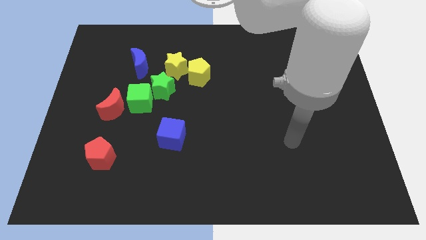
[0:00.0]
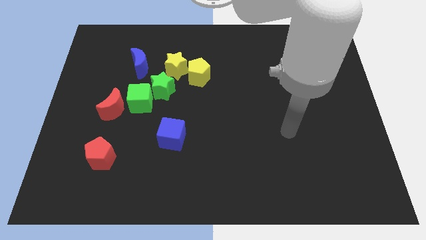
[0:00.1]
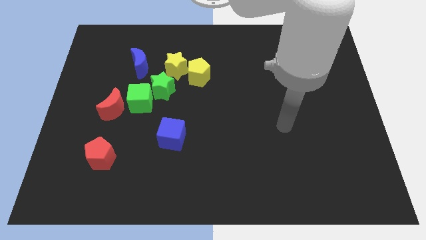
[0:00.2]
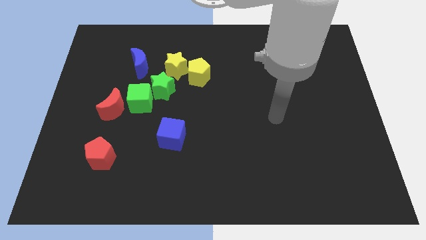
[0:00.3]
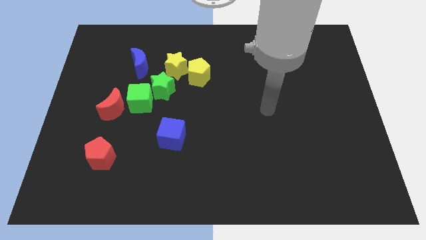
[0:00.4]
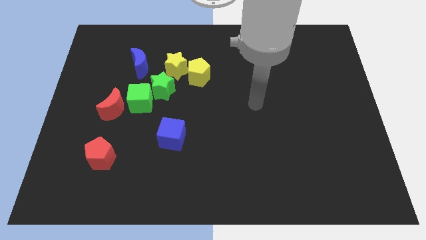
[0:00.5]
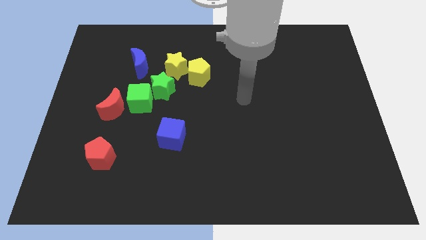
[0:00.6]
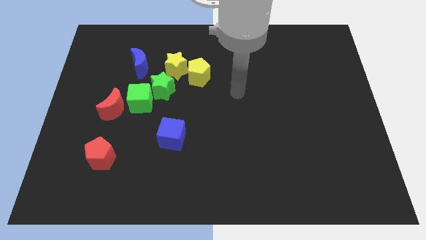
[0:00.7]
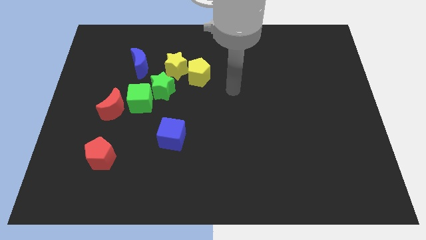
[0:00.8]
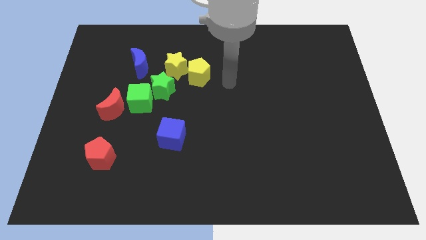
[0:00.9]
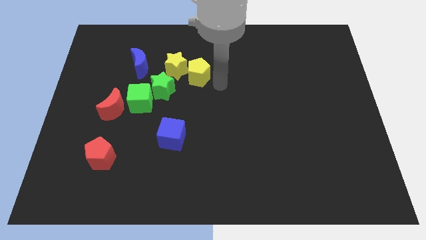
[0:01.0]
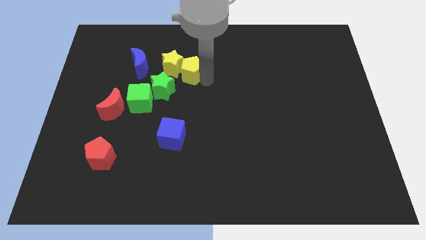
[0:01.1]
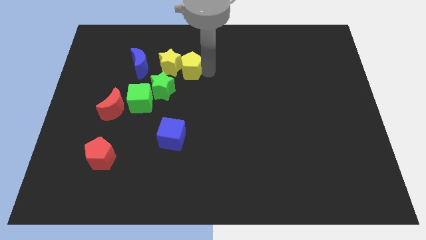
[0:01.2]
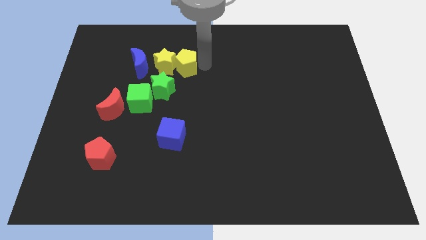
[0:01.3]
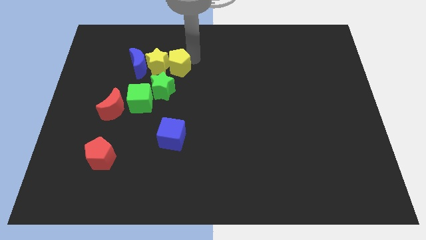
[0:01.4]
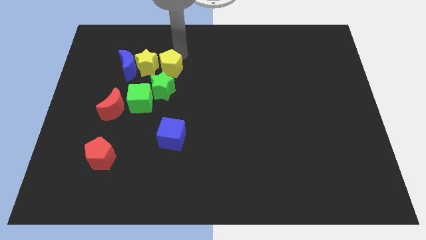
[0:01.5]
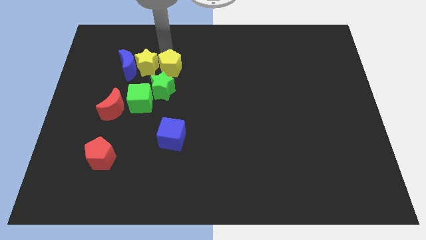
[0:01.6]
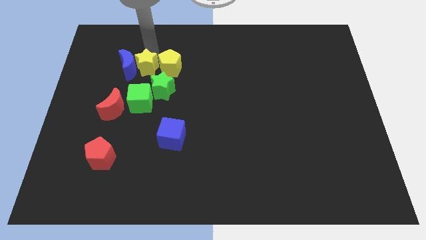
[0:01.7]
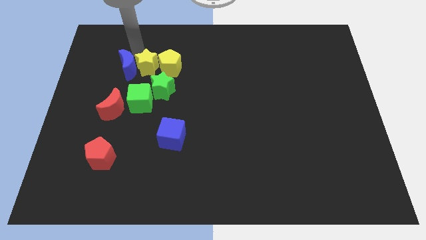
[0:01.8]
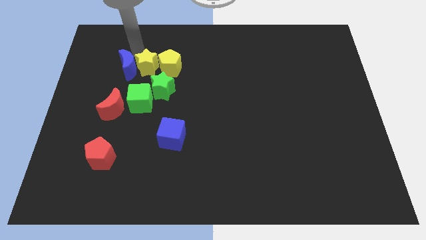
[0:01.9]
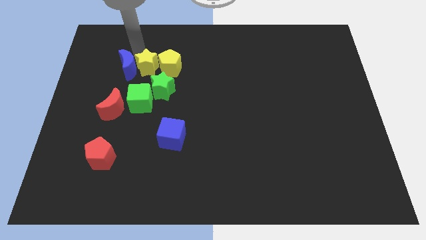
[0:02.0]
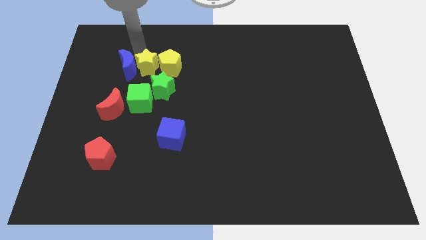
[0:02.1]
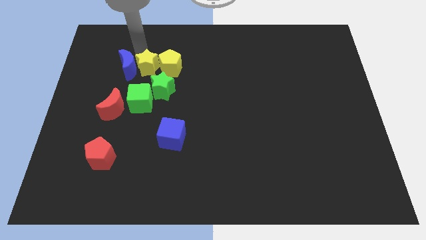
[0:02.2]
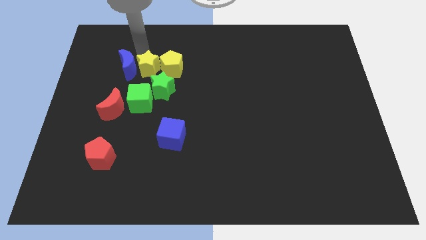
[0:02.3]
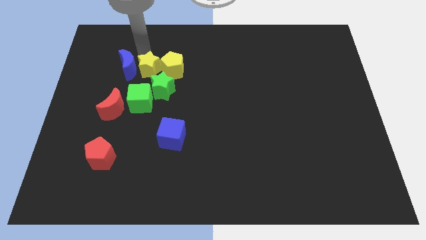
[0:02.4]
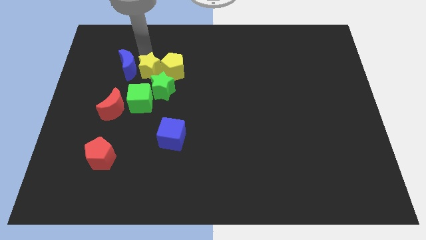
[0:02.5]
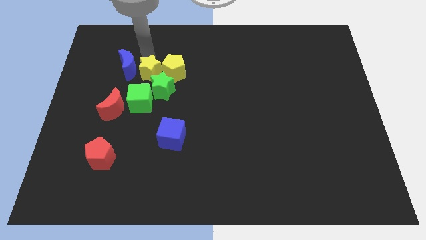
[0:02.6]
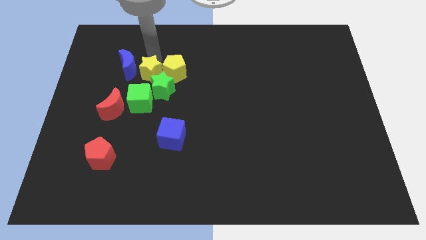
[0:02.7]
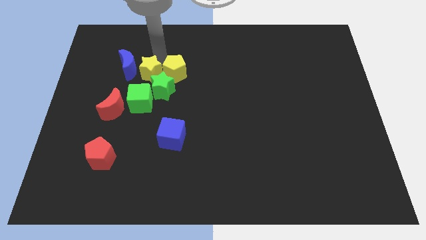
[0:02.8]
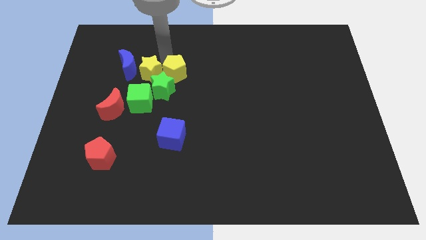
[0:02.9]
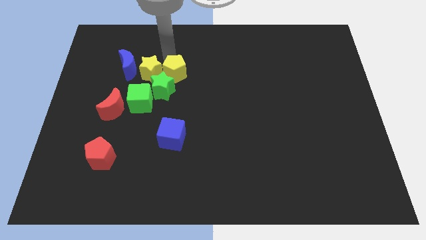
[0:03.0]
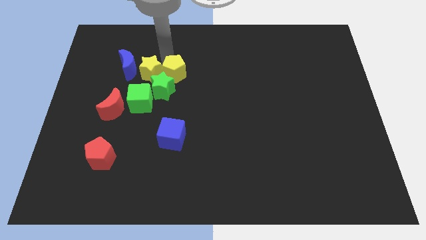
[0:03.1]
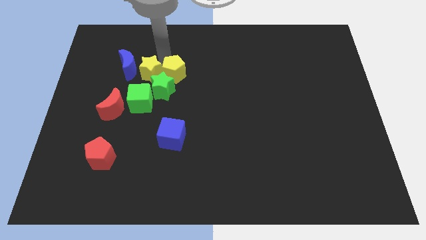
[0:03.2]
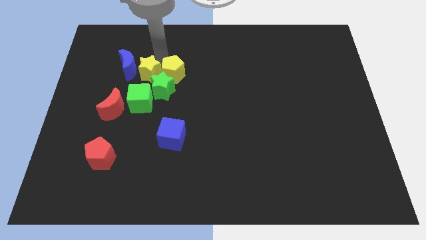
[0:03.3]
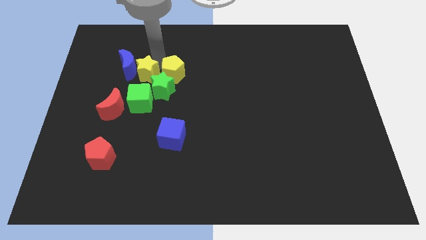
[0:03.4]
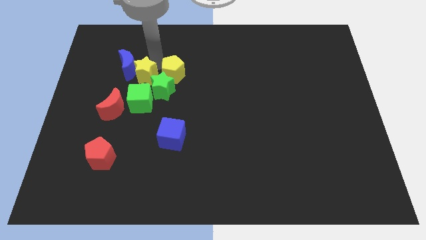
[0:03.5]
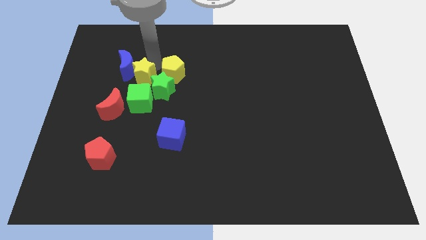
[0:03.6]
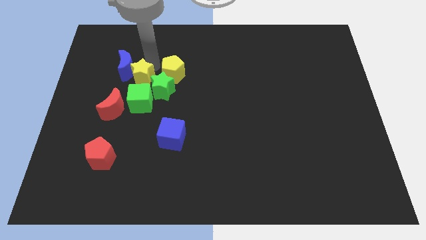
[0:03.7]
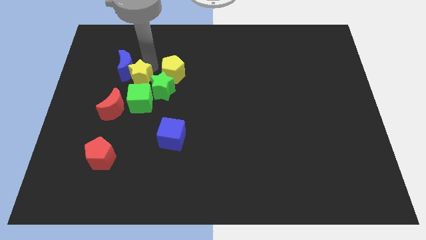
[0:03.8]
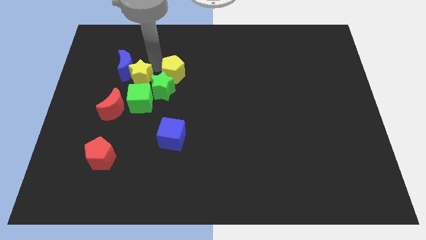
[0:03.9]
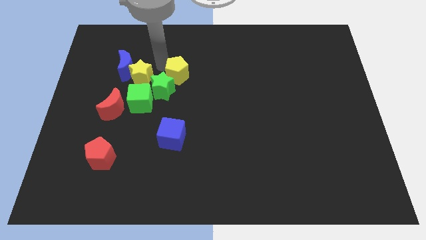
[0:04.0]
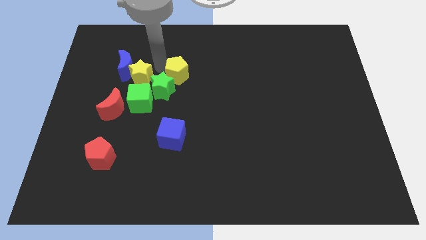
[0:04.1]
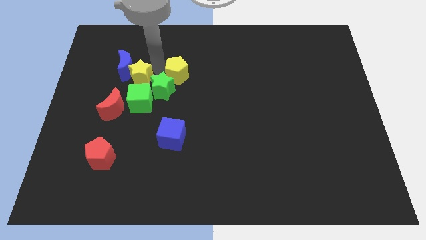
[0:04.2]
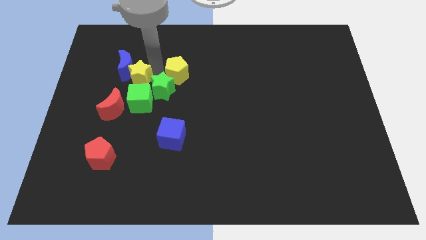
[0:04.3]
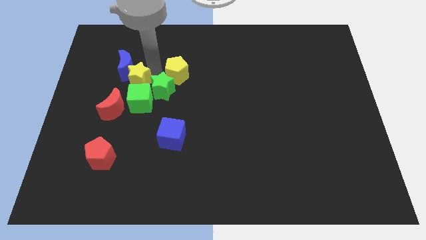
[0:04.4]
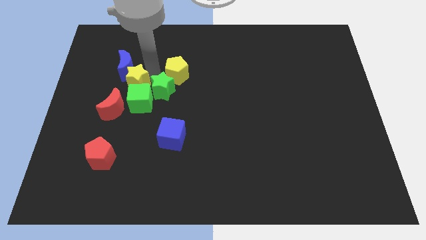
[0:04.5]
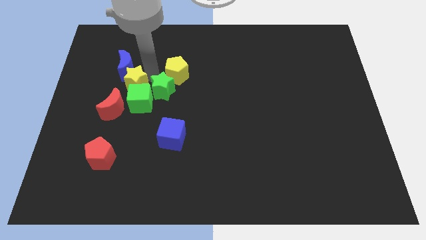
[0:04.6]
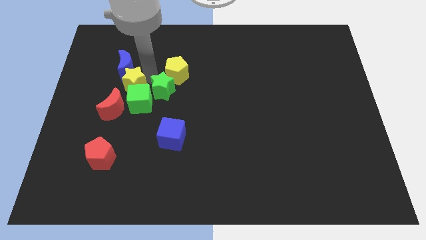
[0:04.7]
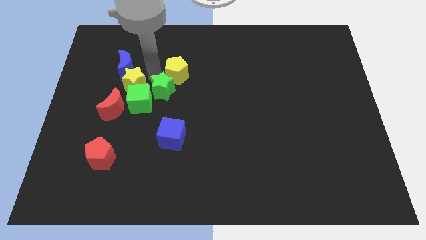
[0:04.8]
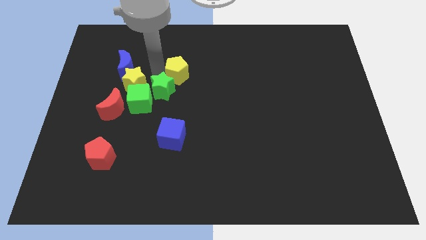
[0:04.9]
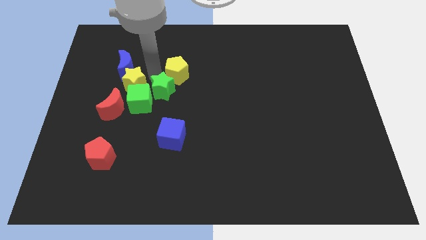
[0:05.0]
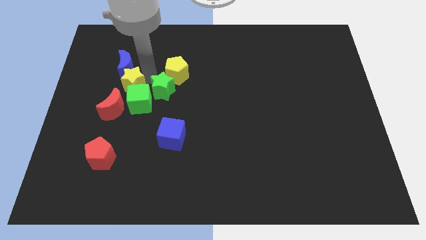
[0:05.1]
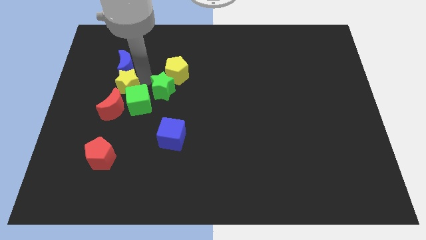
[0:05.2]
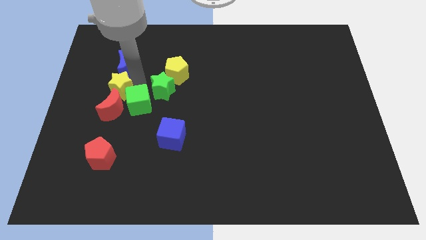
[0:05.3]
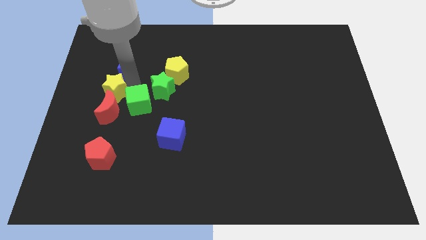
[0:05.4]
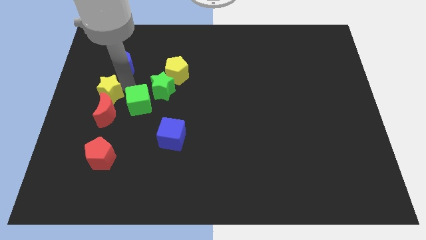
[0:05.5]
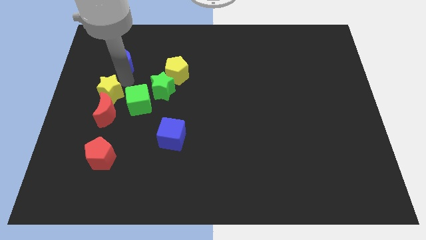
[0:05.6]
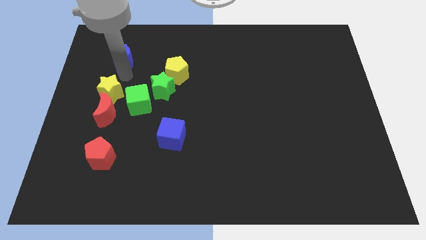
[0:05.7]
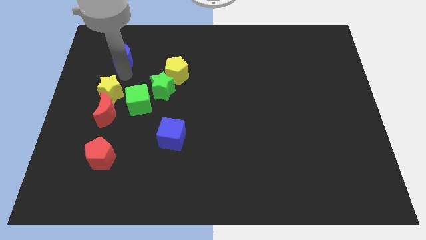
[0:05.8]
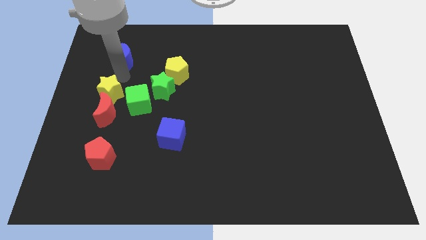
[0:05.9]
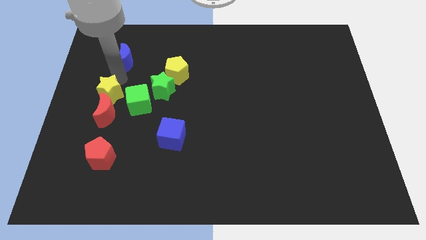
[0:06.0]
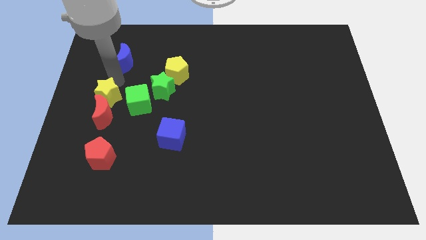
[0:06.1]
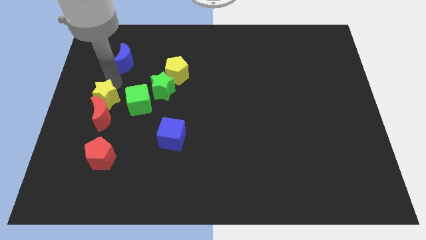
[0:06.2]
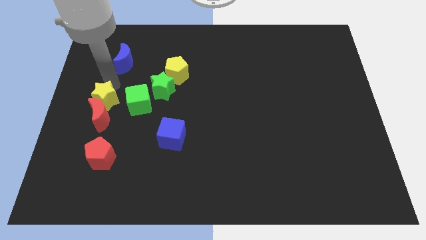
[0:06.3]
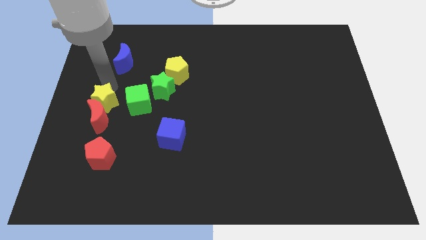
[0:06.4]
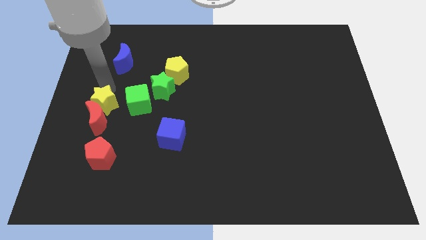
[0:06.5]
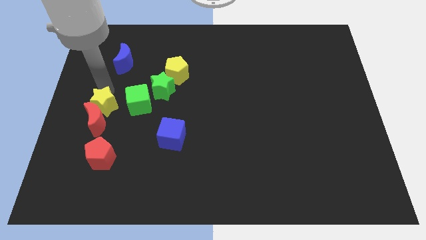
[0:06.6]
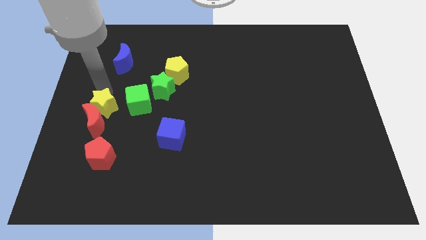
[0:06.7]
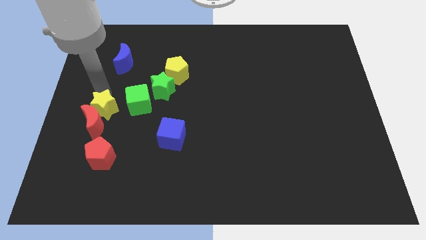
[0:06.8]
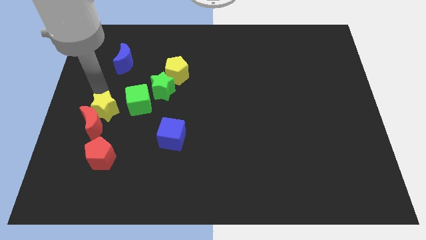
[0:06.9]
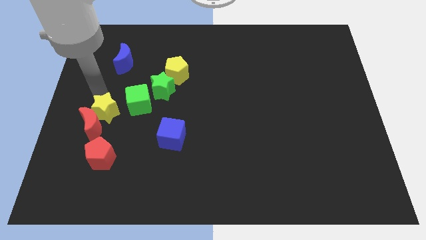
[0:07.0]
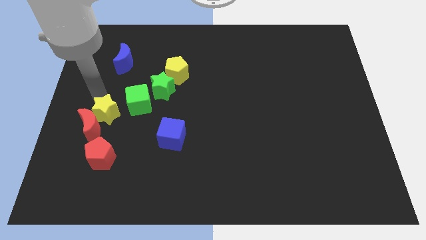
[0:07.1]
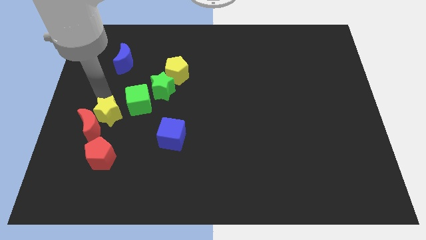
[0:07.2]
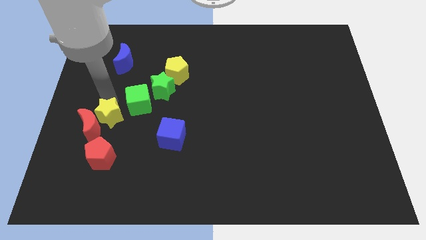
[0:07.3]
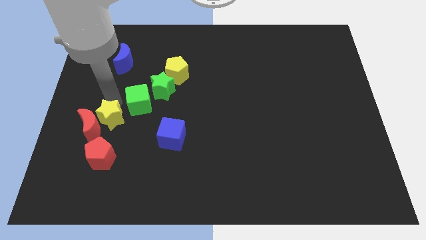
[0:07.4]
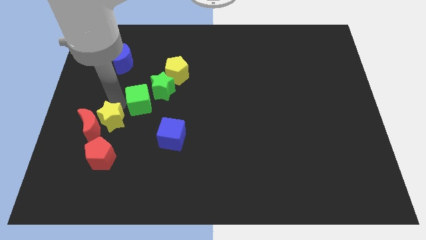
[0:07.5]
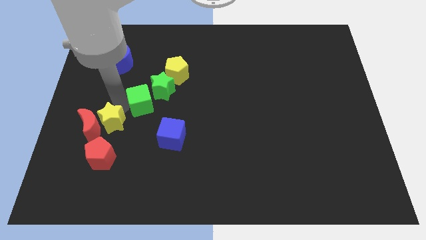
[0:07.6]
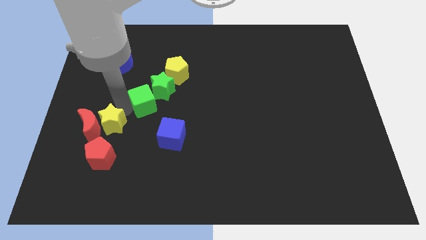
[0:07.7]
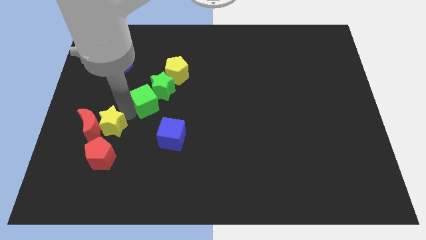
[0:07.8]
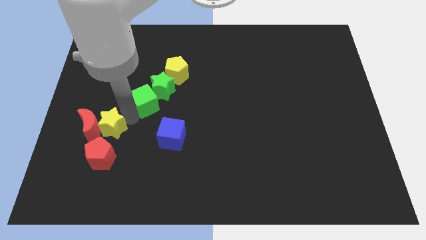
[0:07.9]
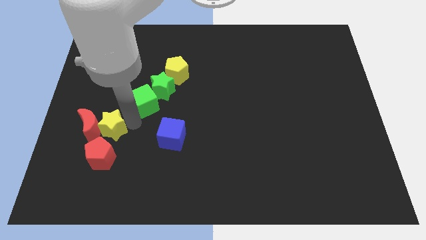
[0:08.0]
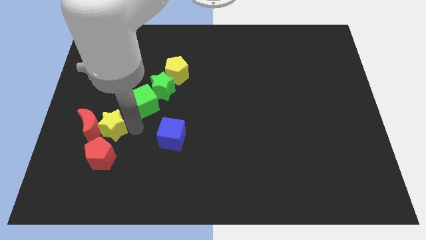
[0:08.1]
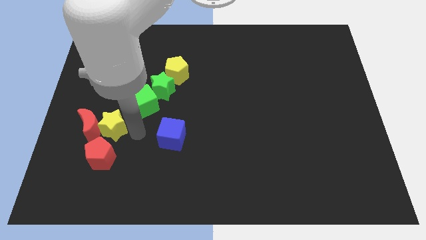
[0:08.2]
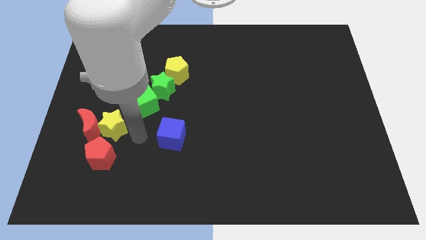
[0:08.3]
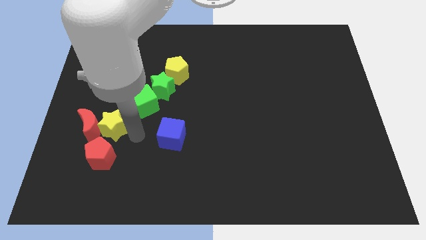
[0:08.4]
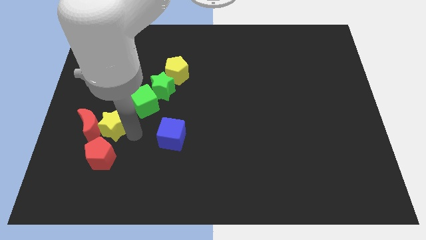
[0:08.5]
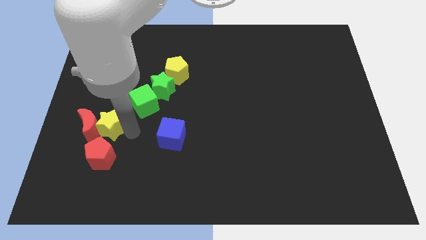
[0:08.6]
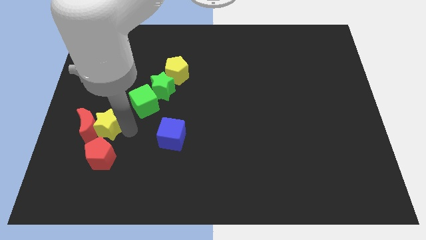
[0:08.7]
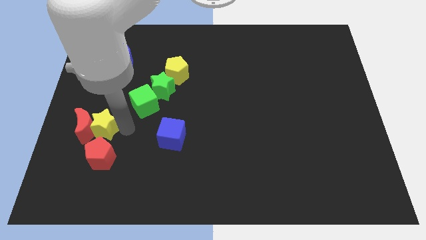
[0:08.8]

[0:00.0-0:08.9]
push the yellow star diagonally up and to the left of the red pentagon
